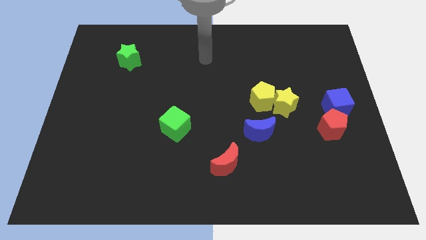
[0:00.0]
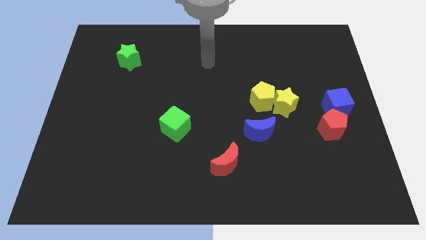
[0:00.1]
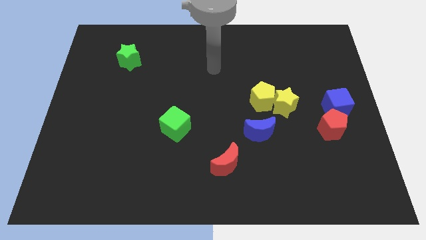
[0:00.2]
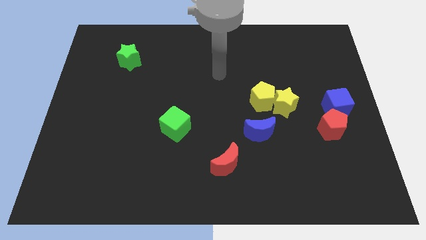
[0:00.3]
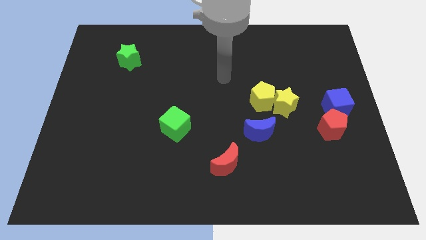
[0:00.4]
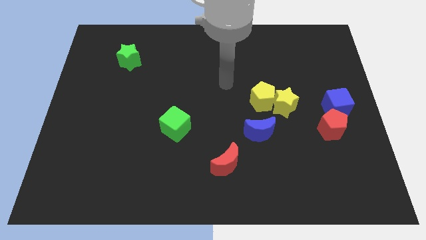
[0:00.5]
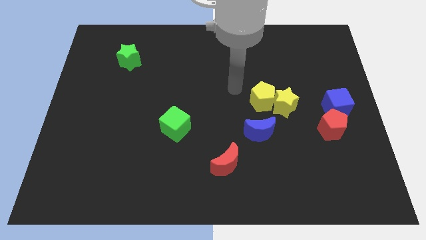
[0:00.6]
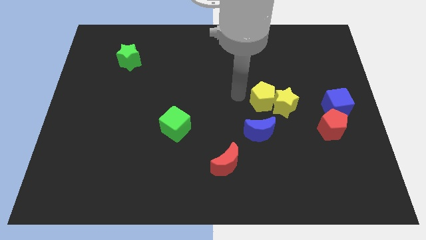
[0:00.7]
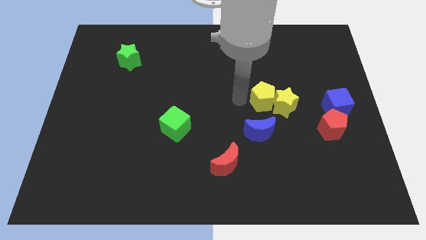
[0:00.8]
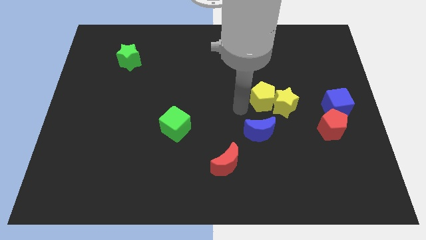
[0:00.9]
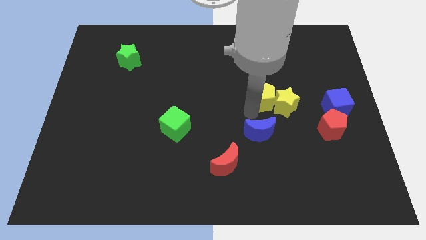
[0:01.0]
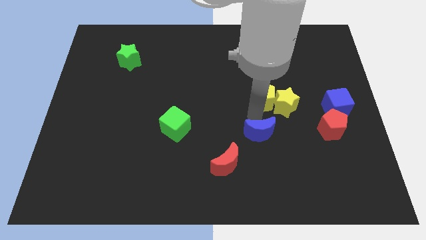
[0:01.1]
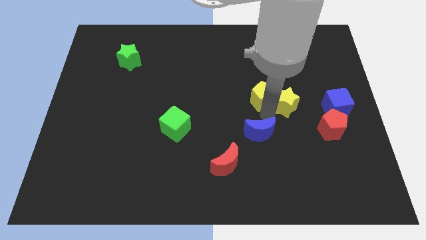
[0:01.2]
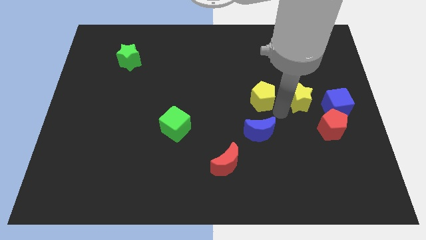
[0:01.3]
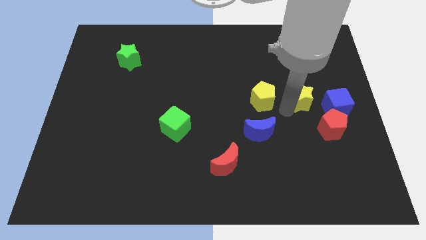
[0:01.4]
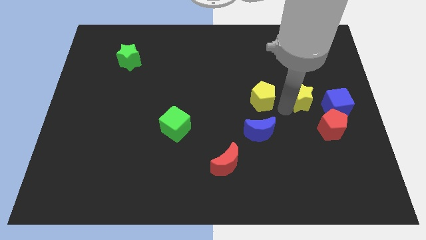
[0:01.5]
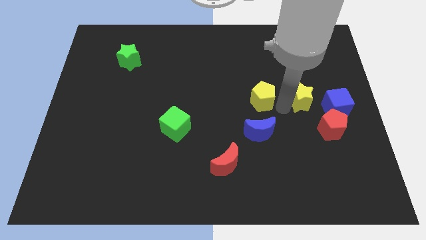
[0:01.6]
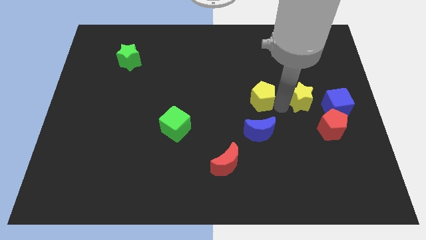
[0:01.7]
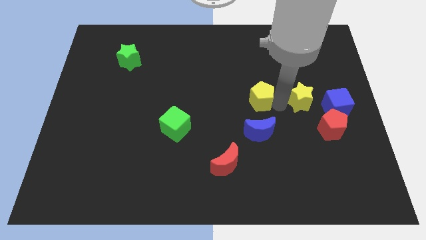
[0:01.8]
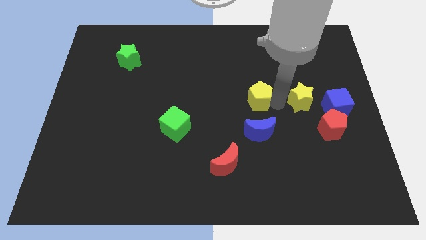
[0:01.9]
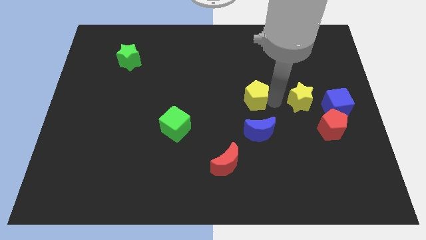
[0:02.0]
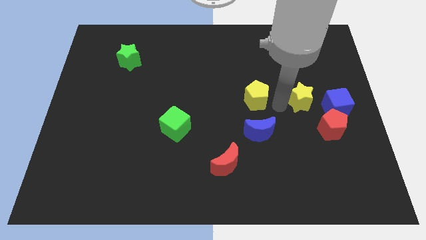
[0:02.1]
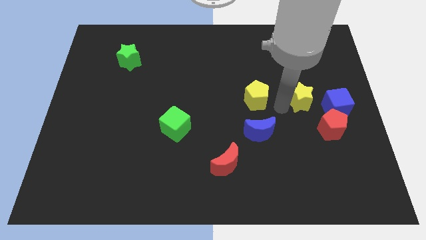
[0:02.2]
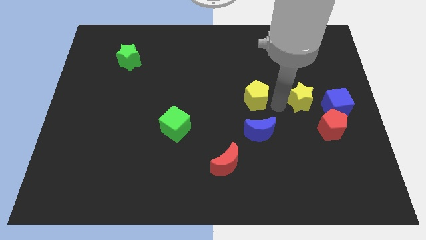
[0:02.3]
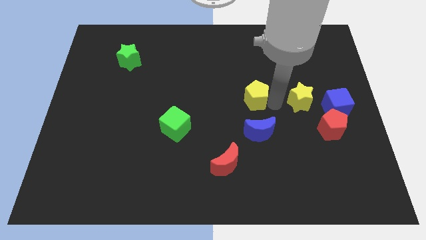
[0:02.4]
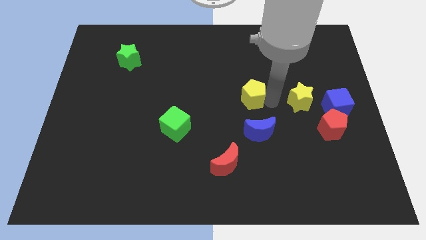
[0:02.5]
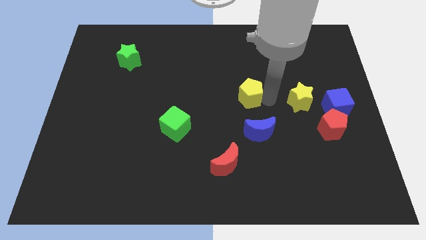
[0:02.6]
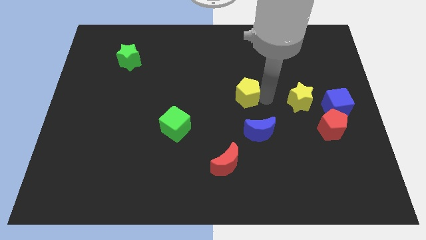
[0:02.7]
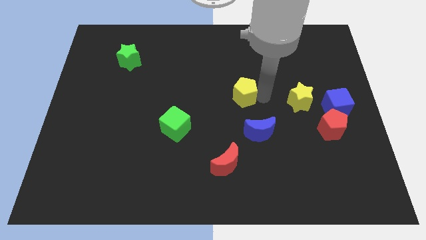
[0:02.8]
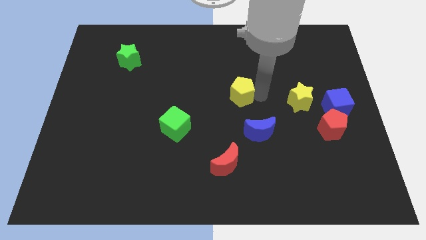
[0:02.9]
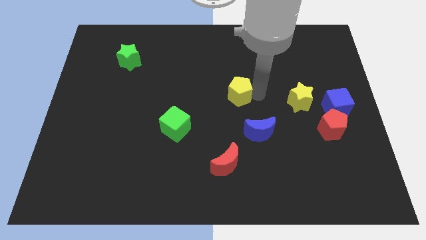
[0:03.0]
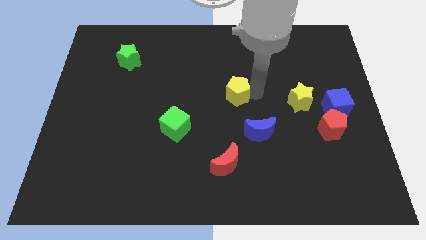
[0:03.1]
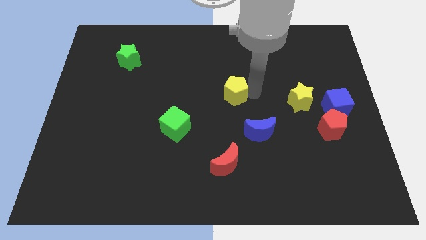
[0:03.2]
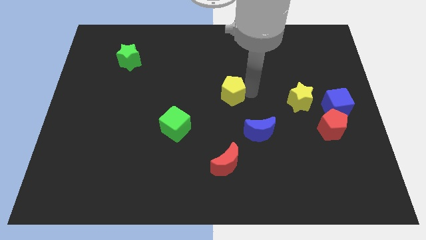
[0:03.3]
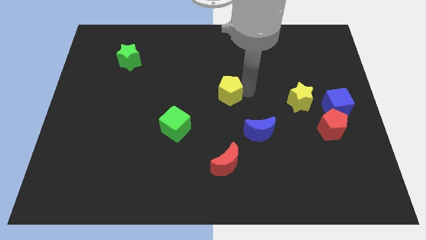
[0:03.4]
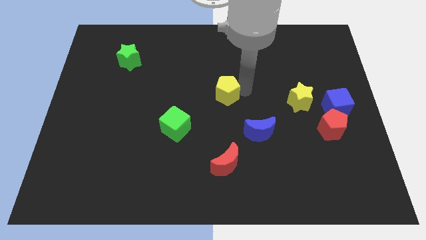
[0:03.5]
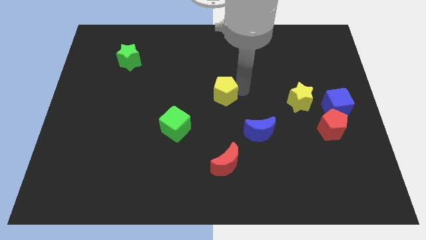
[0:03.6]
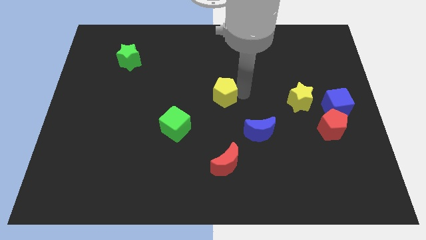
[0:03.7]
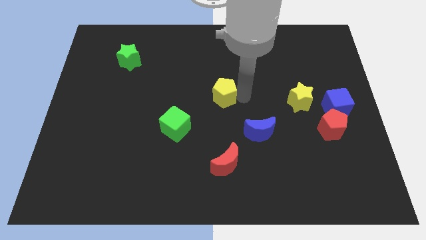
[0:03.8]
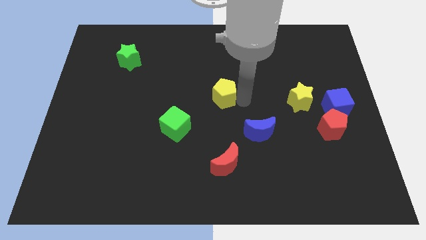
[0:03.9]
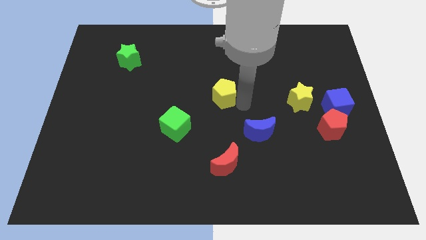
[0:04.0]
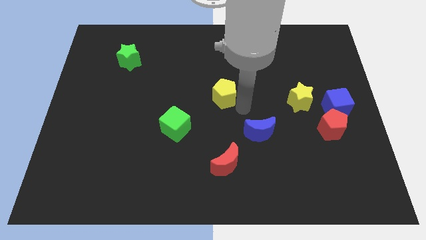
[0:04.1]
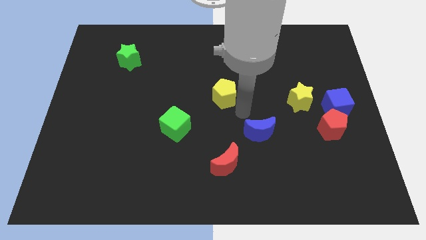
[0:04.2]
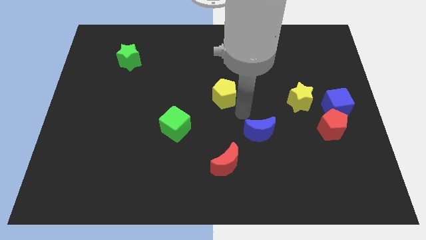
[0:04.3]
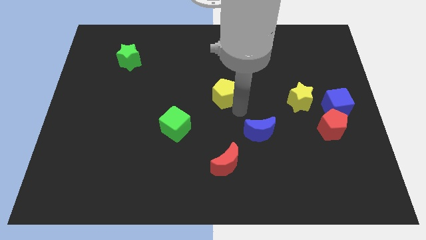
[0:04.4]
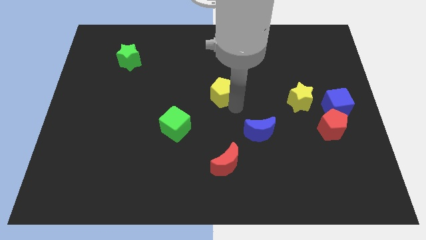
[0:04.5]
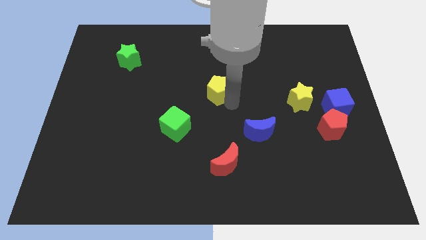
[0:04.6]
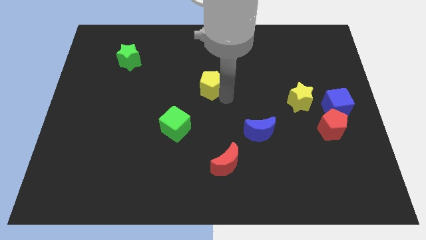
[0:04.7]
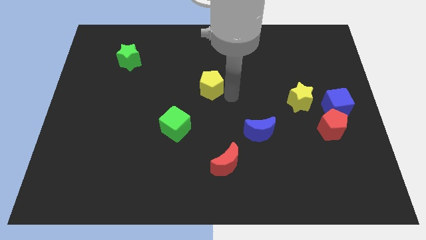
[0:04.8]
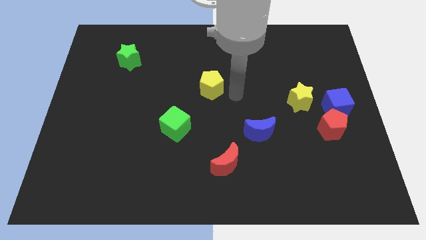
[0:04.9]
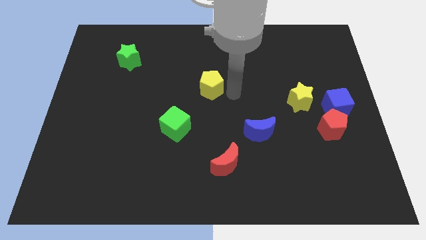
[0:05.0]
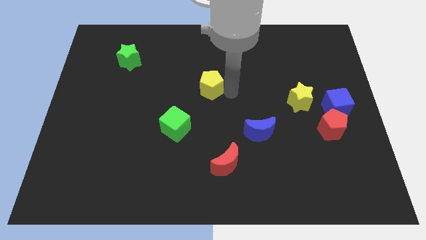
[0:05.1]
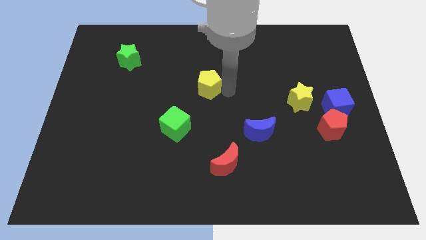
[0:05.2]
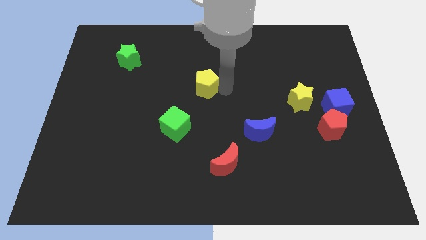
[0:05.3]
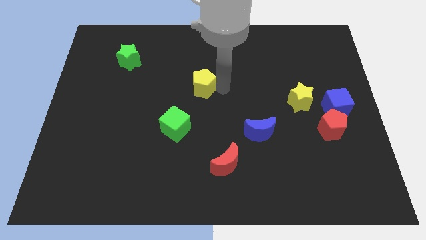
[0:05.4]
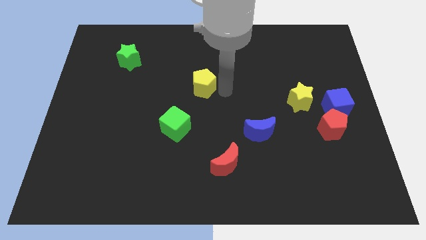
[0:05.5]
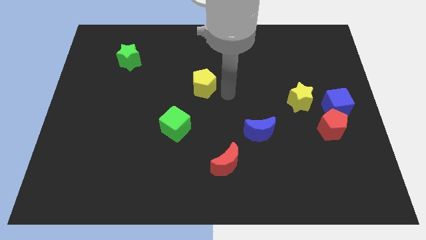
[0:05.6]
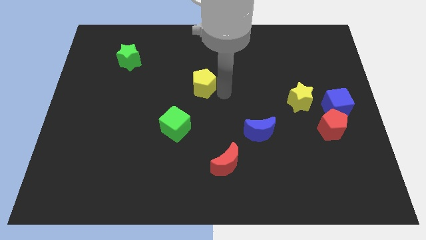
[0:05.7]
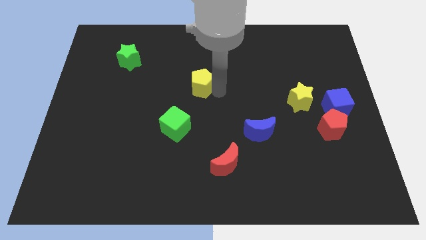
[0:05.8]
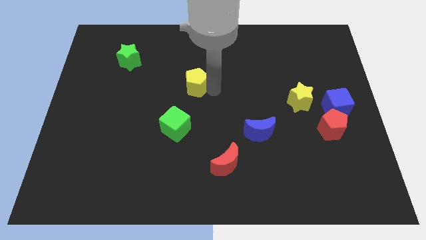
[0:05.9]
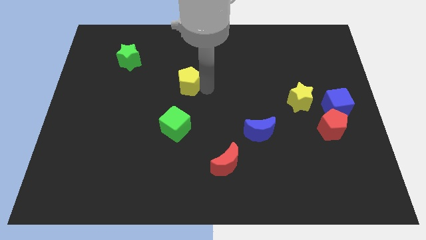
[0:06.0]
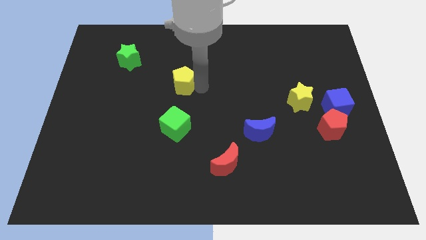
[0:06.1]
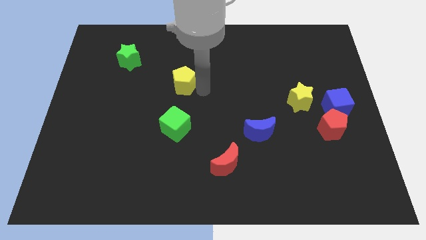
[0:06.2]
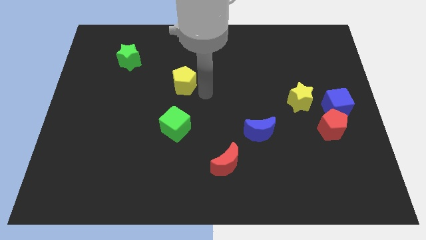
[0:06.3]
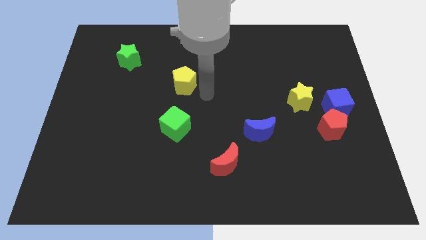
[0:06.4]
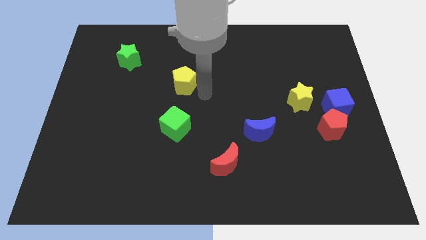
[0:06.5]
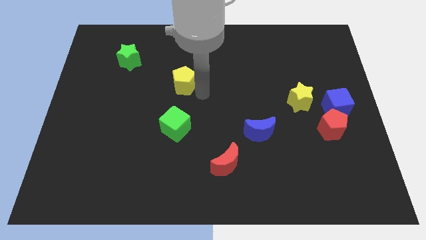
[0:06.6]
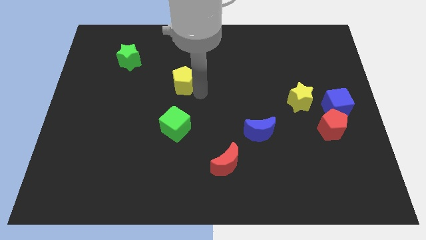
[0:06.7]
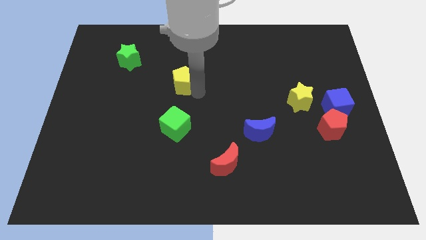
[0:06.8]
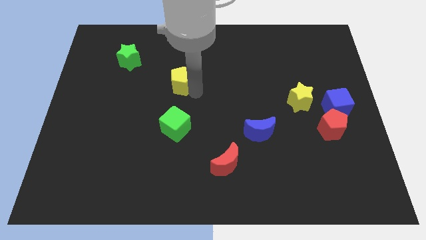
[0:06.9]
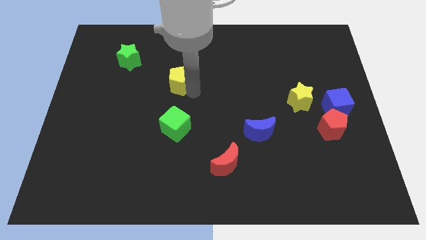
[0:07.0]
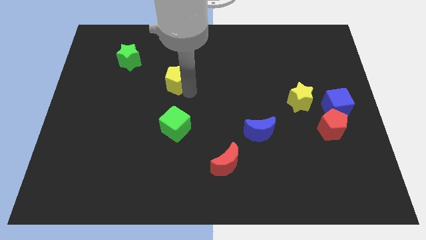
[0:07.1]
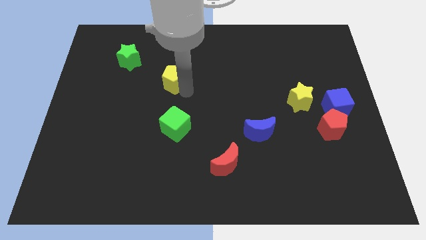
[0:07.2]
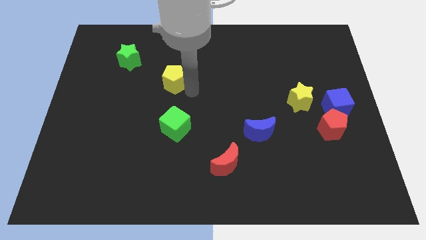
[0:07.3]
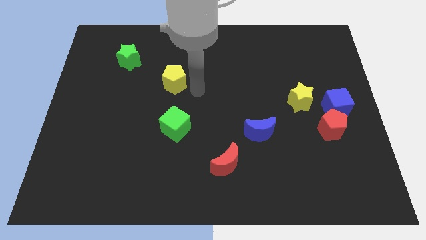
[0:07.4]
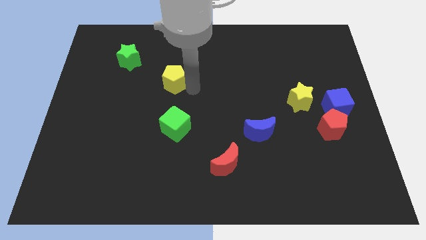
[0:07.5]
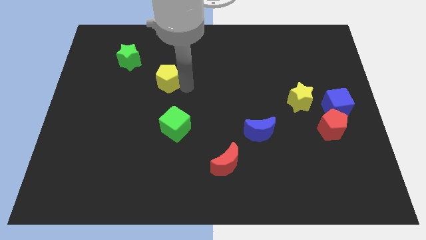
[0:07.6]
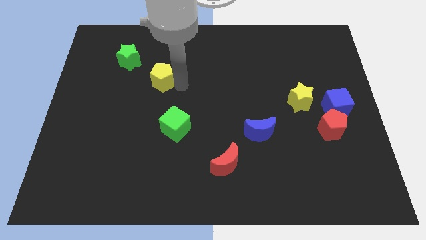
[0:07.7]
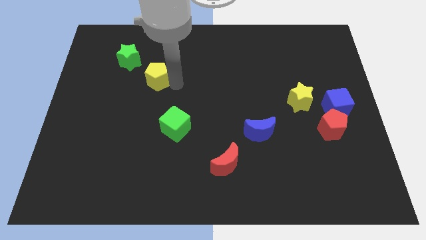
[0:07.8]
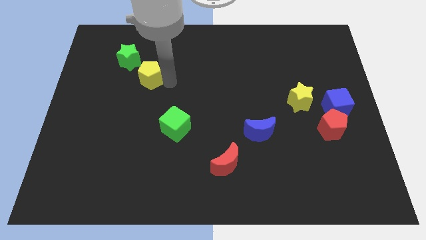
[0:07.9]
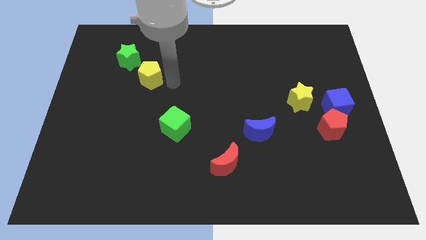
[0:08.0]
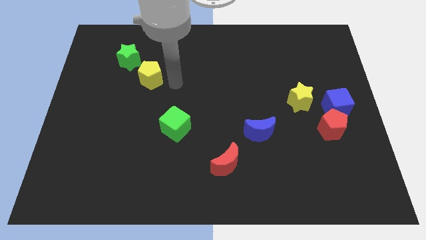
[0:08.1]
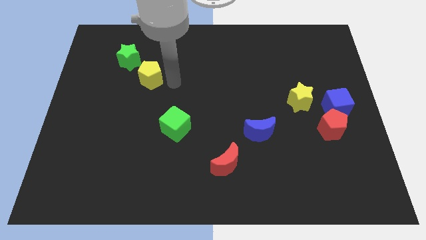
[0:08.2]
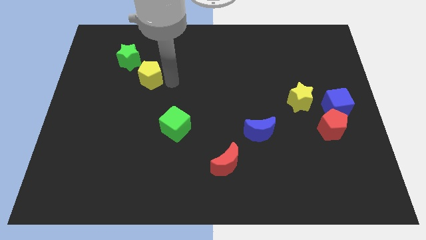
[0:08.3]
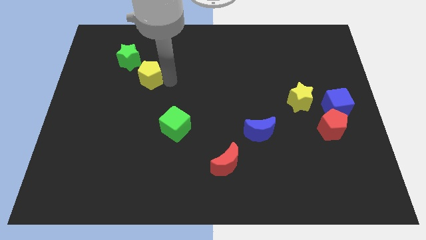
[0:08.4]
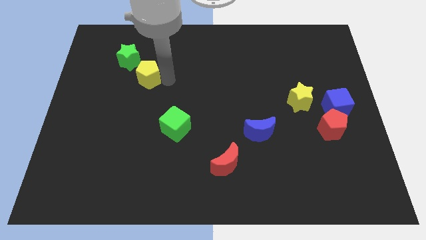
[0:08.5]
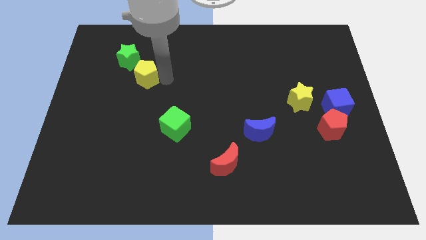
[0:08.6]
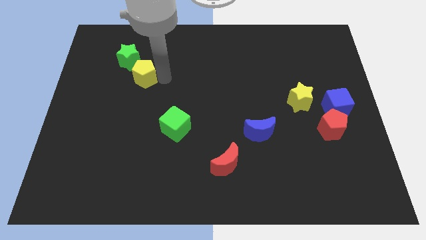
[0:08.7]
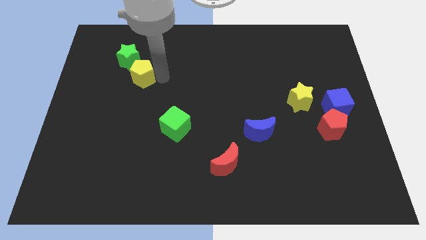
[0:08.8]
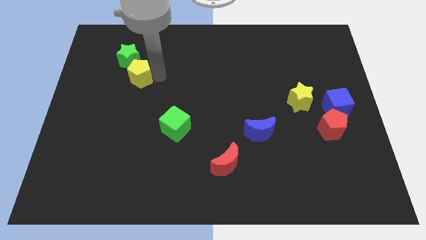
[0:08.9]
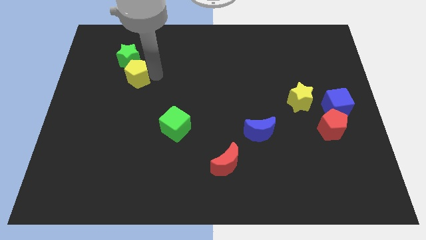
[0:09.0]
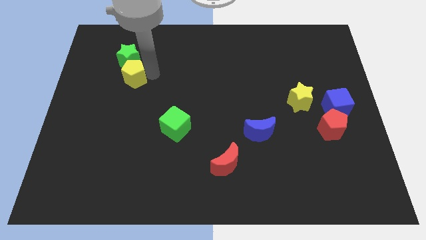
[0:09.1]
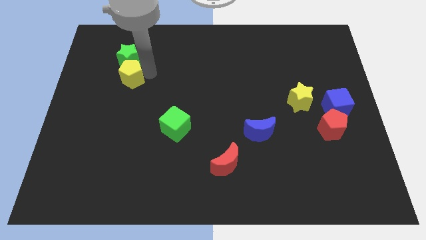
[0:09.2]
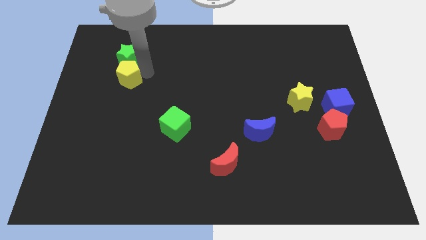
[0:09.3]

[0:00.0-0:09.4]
put the yellow pentagon to the bottom left side of the green star
